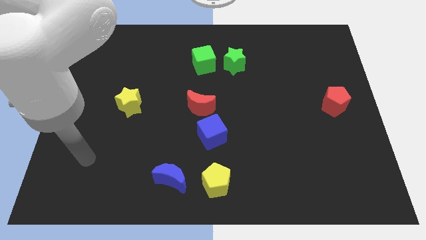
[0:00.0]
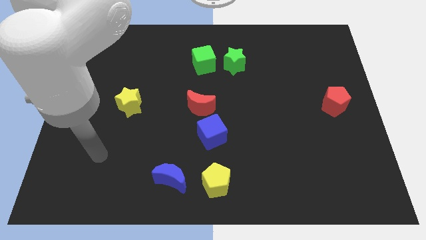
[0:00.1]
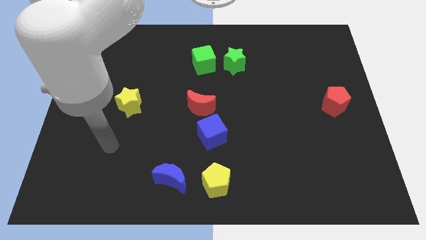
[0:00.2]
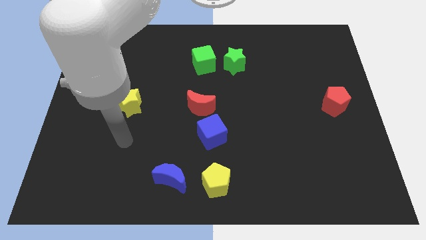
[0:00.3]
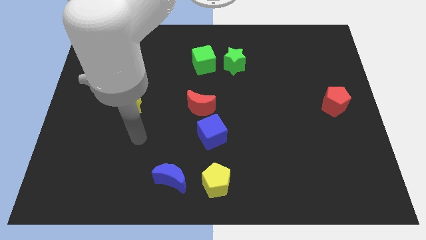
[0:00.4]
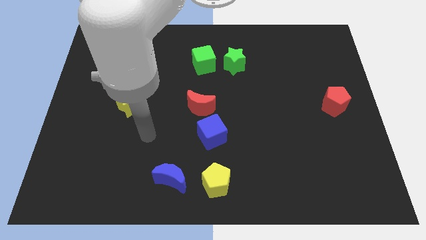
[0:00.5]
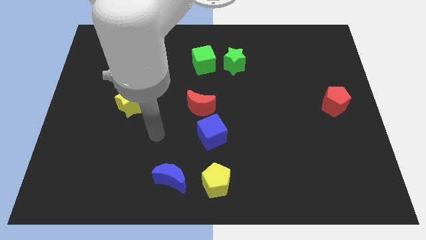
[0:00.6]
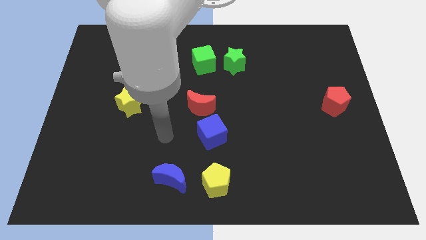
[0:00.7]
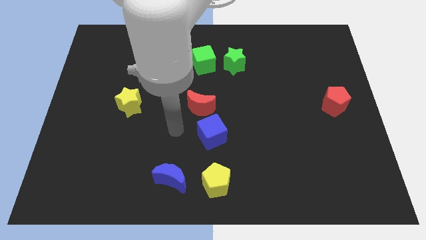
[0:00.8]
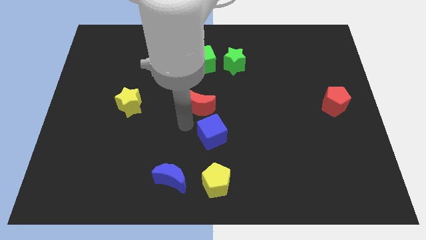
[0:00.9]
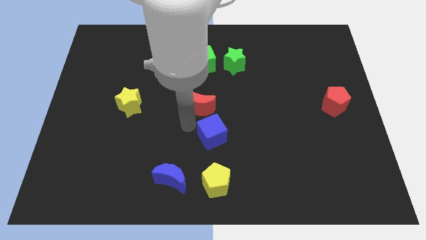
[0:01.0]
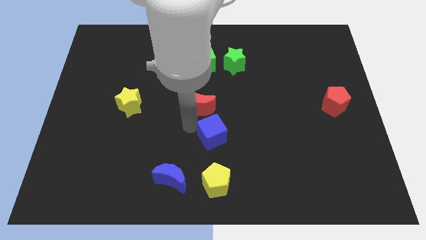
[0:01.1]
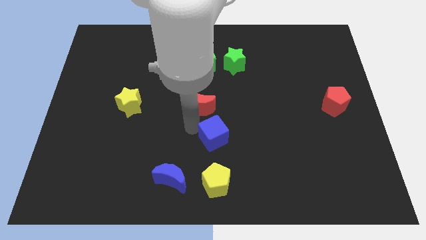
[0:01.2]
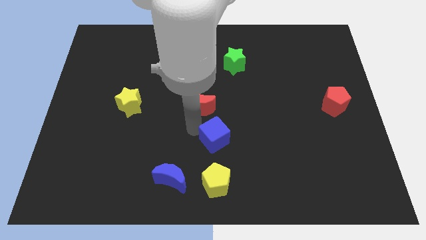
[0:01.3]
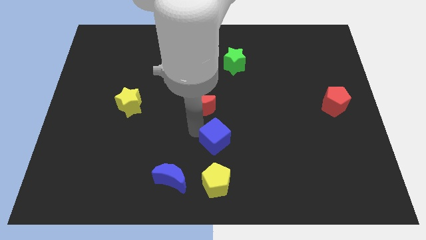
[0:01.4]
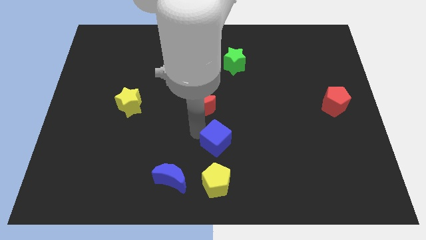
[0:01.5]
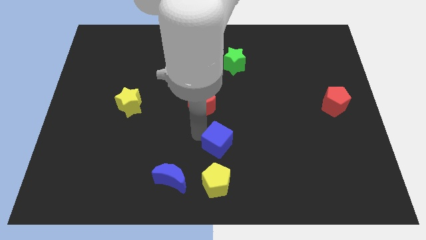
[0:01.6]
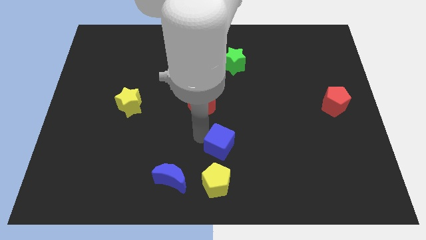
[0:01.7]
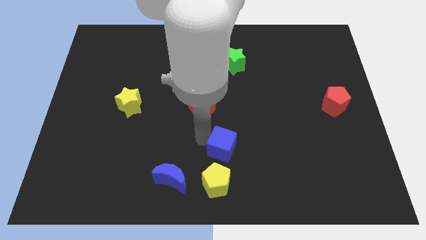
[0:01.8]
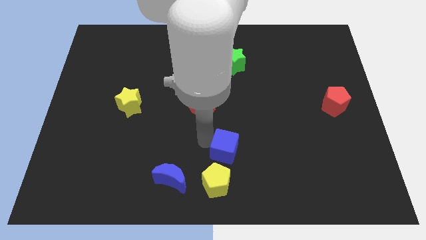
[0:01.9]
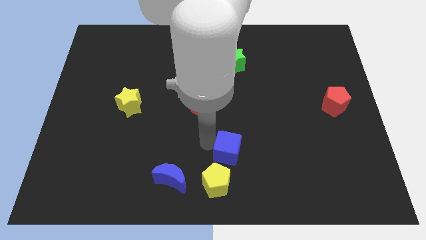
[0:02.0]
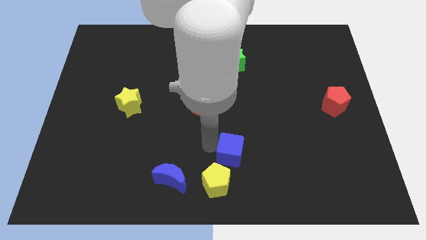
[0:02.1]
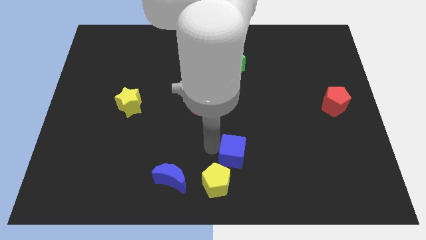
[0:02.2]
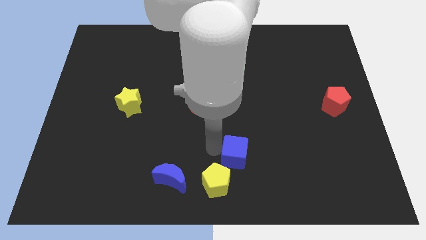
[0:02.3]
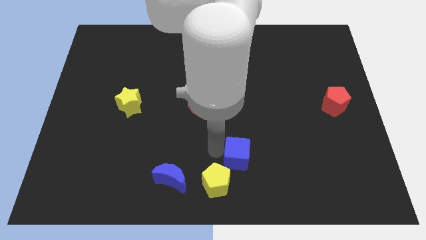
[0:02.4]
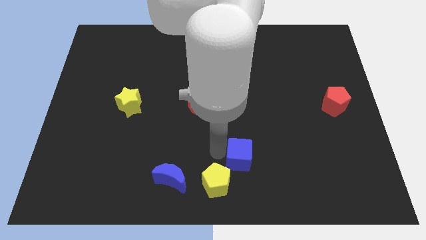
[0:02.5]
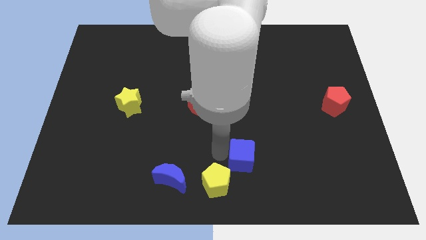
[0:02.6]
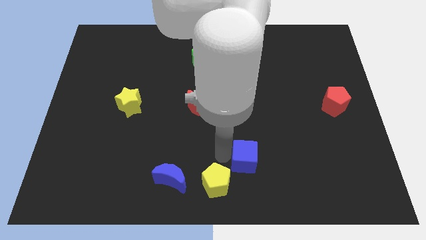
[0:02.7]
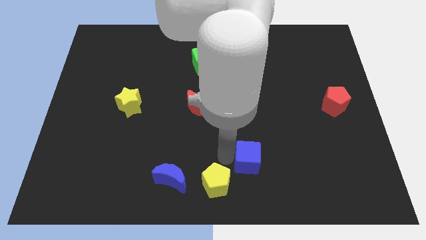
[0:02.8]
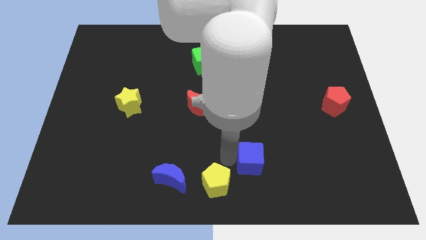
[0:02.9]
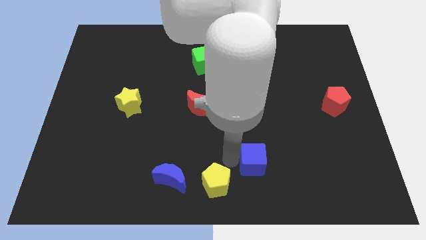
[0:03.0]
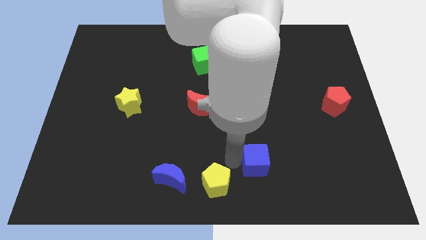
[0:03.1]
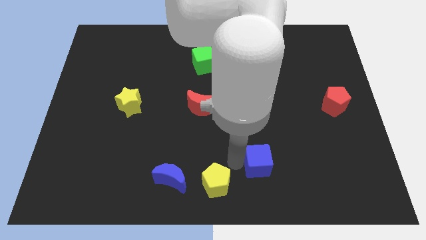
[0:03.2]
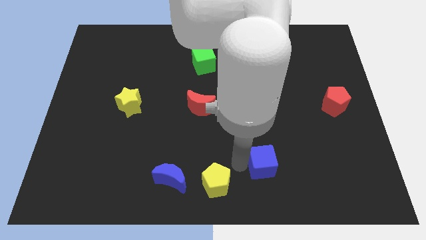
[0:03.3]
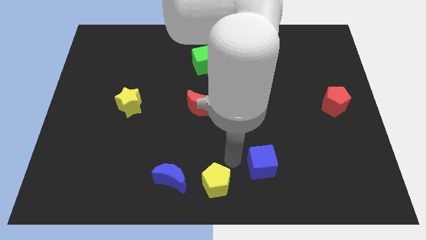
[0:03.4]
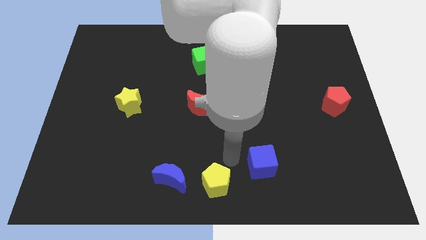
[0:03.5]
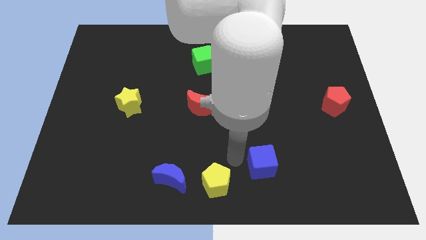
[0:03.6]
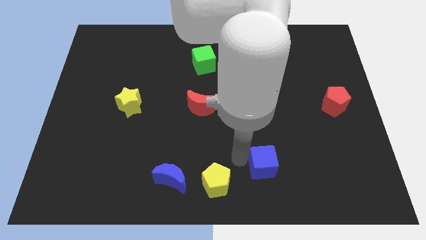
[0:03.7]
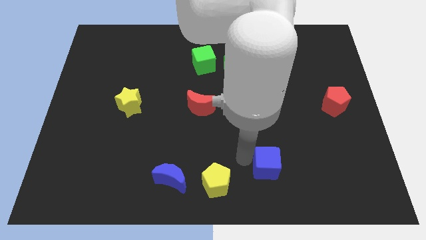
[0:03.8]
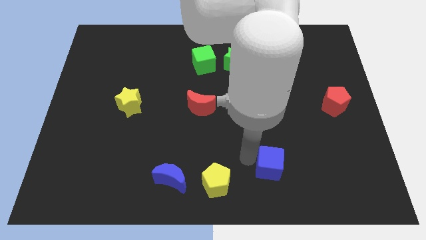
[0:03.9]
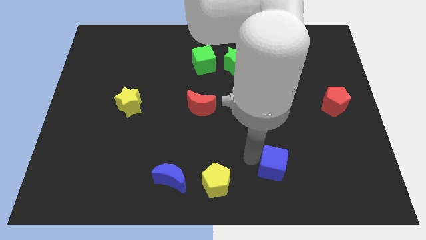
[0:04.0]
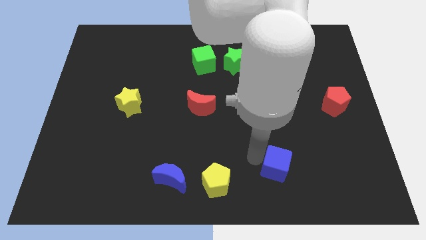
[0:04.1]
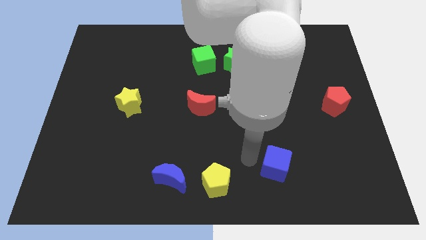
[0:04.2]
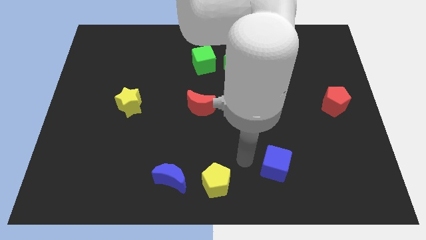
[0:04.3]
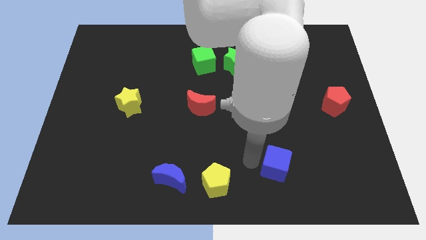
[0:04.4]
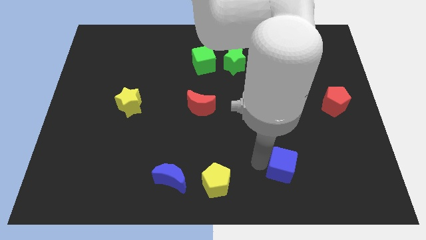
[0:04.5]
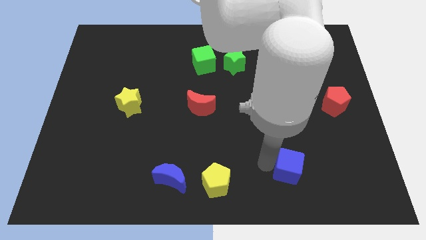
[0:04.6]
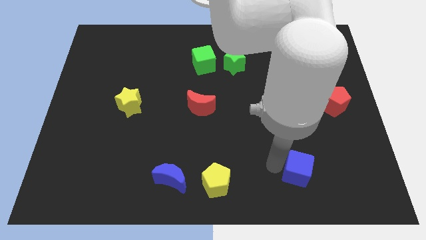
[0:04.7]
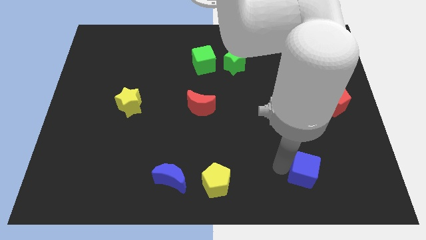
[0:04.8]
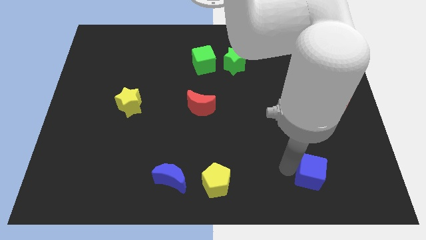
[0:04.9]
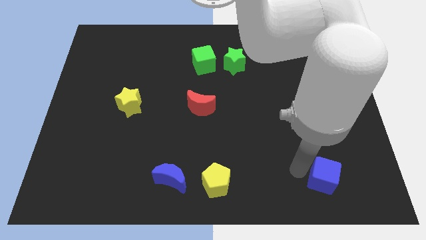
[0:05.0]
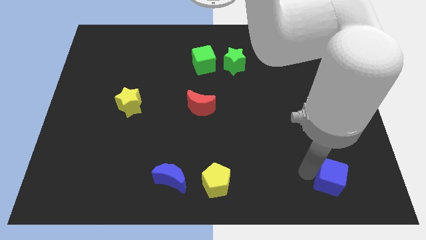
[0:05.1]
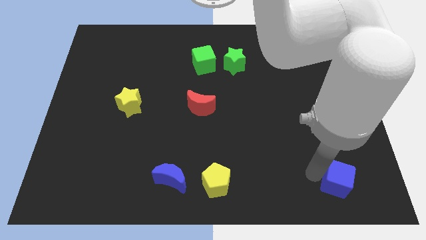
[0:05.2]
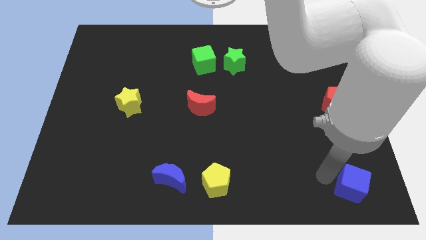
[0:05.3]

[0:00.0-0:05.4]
slide the blue cube to the bottom right

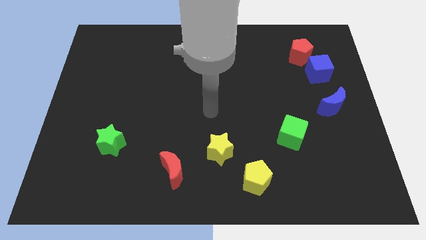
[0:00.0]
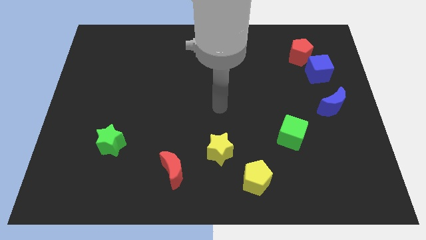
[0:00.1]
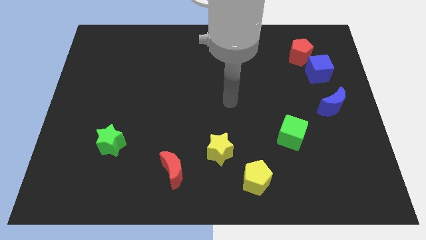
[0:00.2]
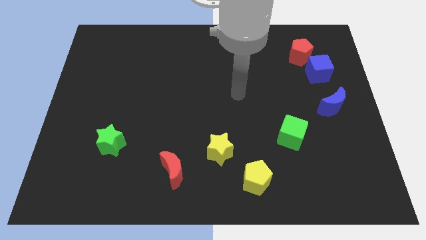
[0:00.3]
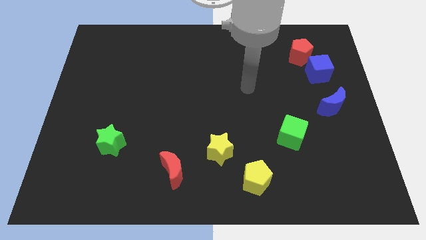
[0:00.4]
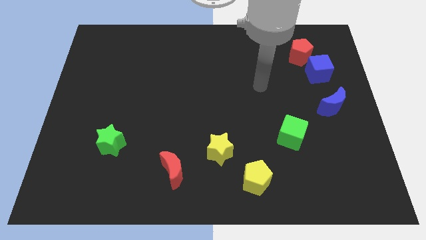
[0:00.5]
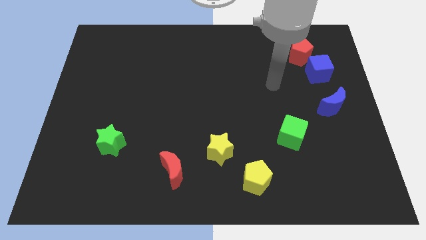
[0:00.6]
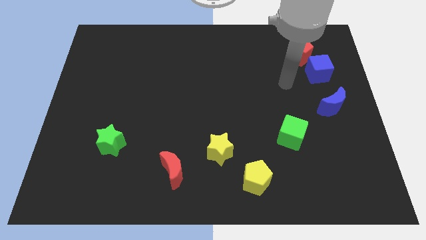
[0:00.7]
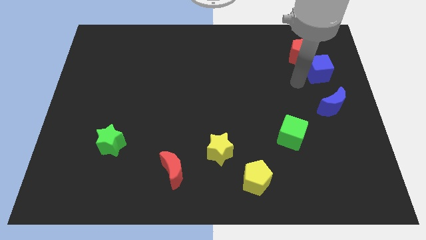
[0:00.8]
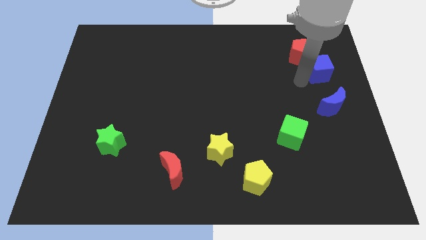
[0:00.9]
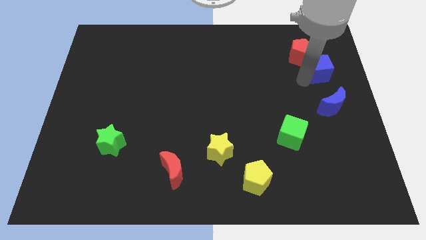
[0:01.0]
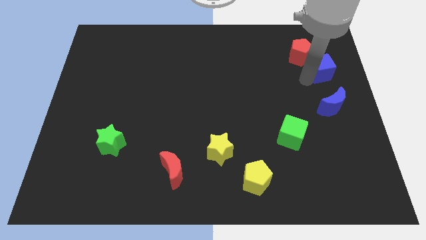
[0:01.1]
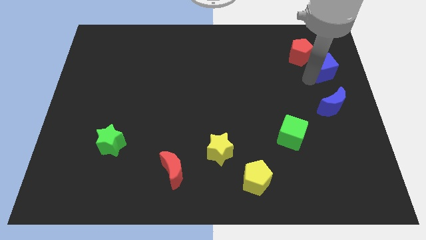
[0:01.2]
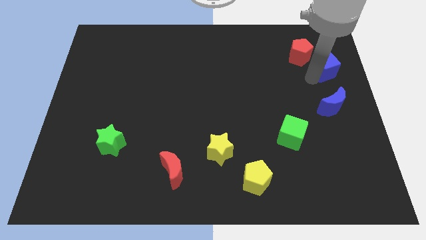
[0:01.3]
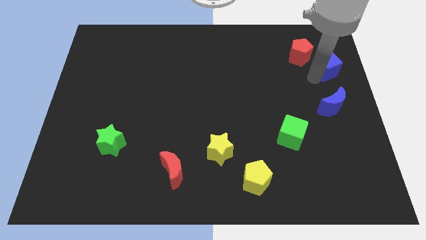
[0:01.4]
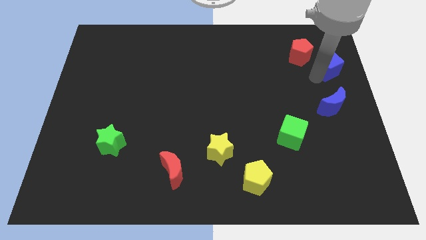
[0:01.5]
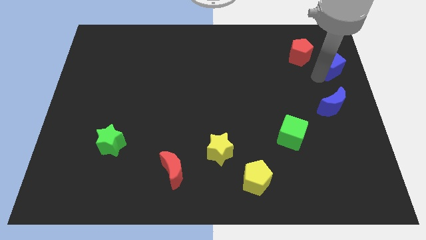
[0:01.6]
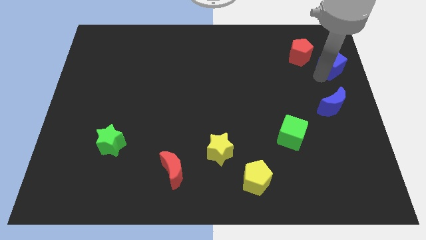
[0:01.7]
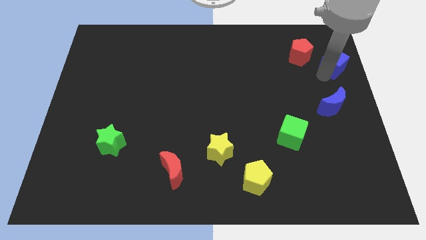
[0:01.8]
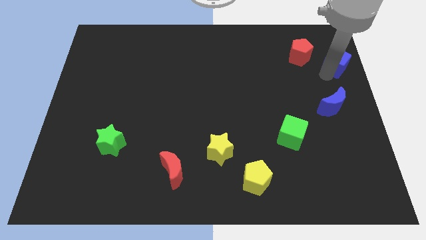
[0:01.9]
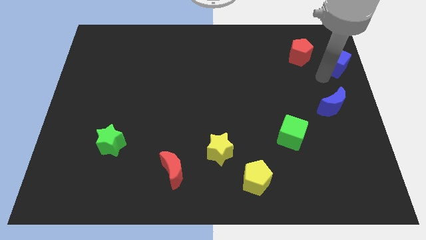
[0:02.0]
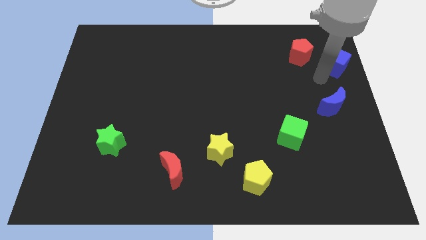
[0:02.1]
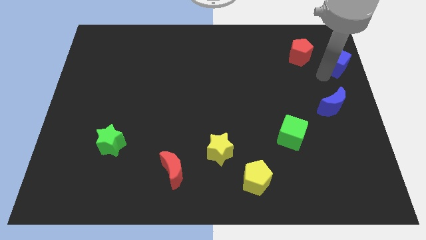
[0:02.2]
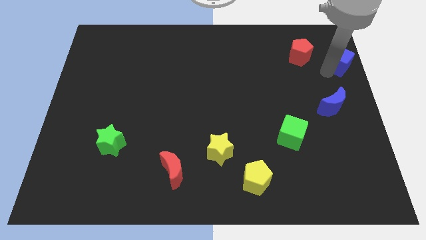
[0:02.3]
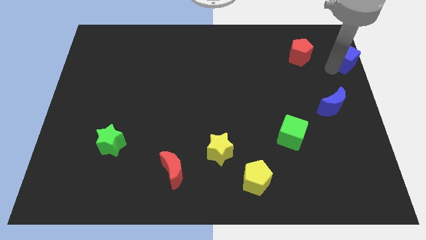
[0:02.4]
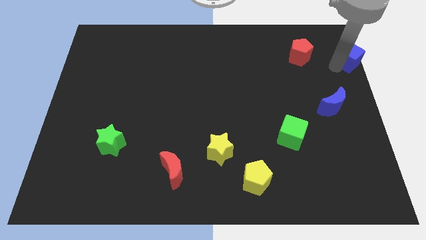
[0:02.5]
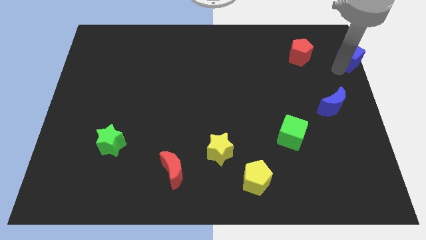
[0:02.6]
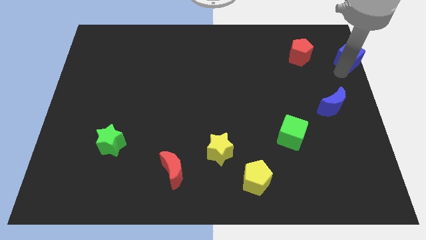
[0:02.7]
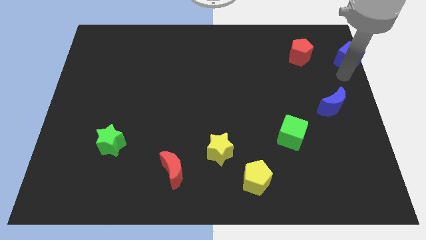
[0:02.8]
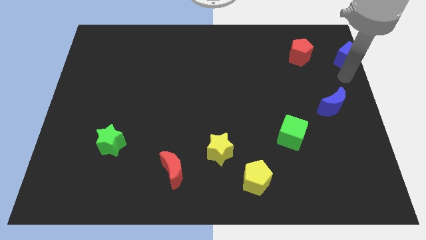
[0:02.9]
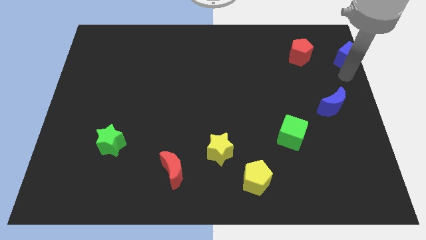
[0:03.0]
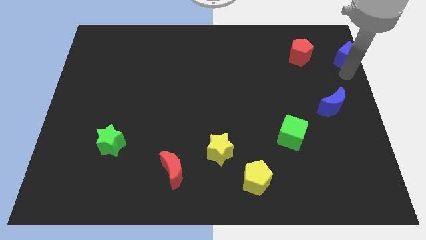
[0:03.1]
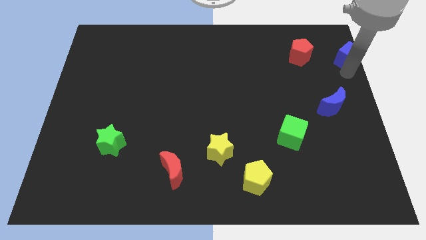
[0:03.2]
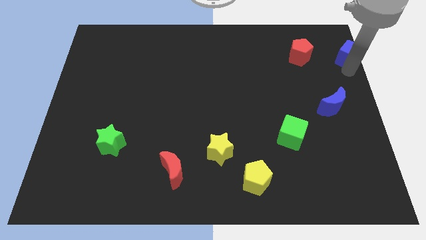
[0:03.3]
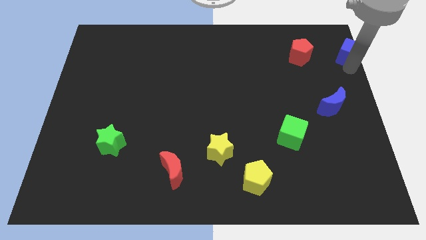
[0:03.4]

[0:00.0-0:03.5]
push the blue cube to the top right corner
